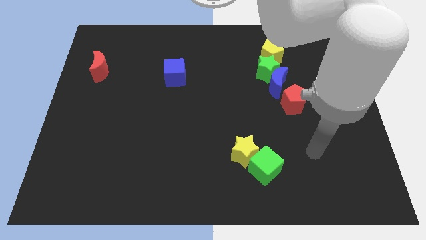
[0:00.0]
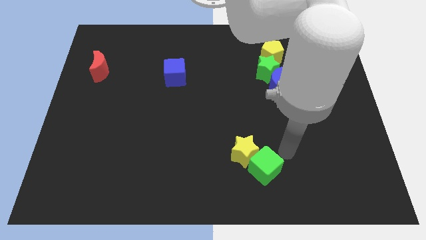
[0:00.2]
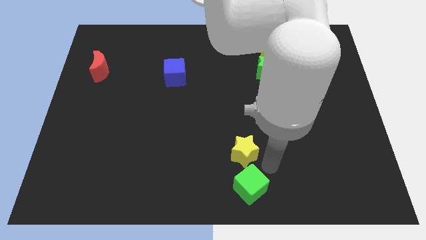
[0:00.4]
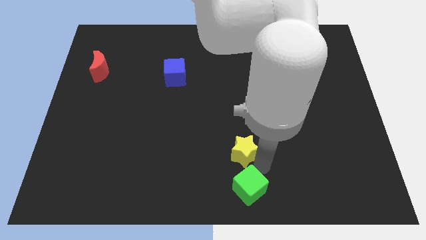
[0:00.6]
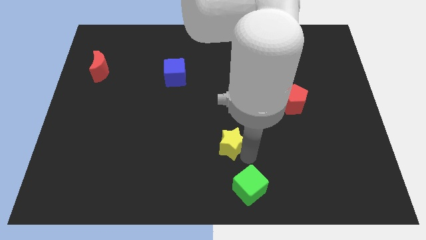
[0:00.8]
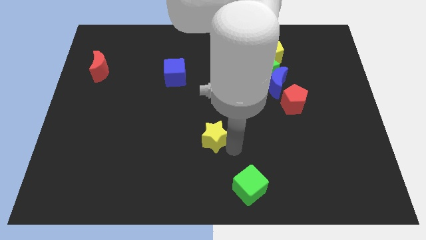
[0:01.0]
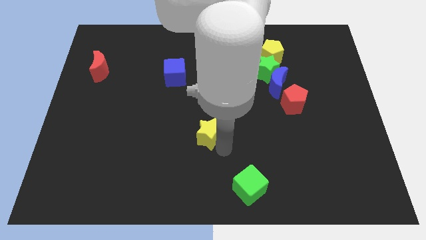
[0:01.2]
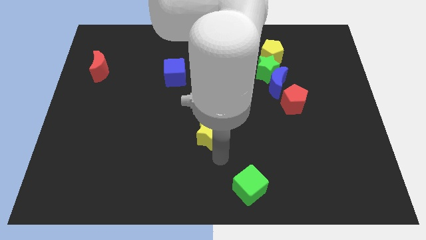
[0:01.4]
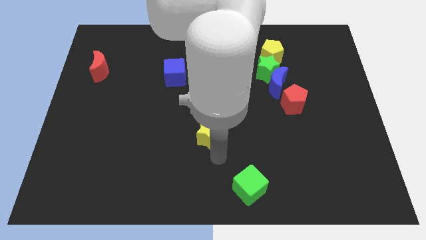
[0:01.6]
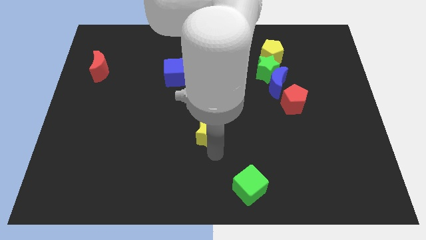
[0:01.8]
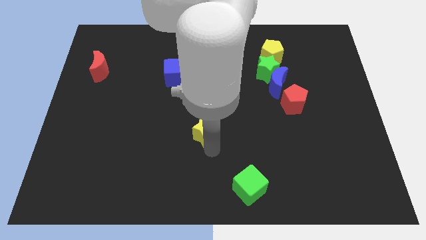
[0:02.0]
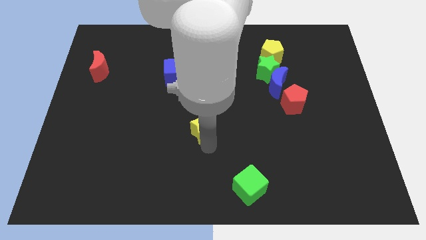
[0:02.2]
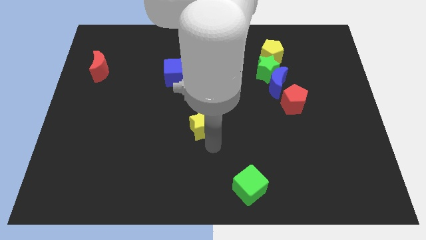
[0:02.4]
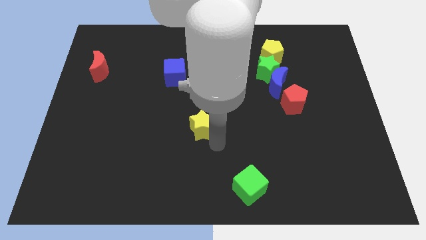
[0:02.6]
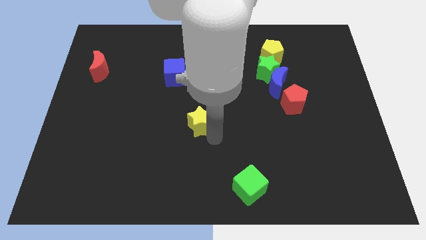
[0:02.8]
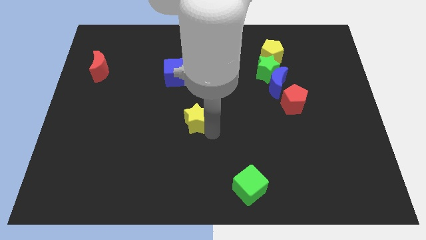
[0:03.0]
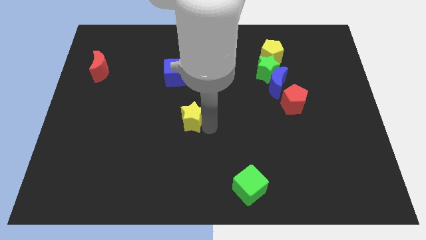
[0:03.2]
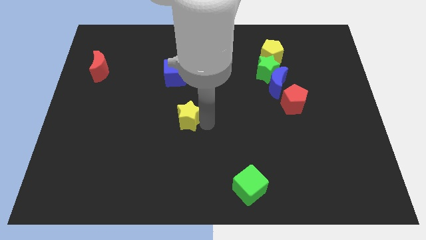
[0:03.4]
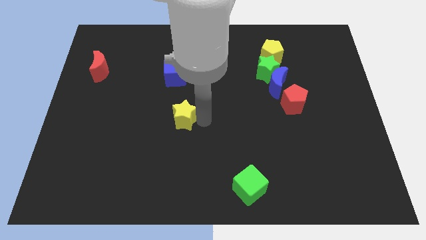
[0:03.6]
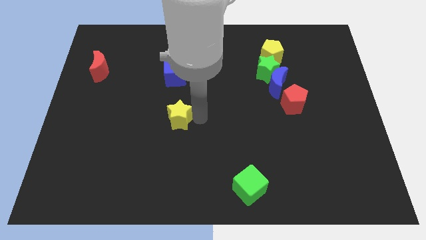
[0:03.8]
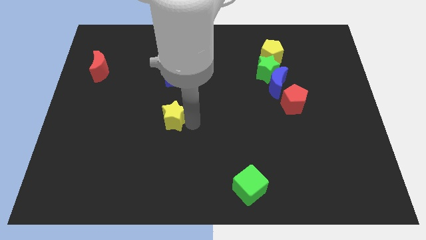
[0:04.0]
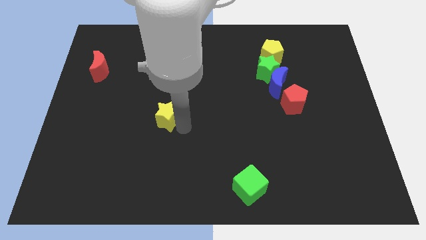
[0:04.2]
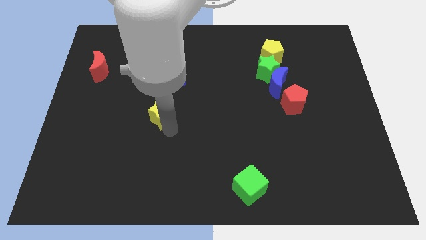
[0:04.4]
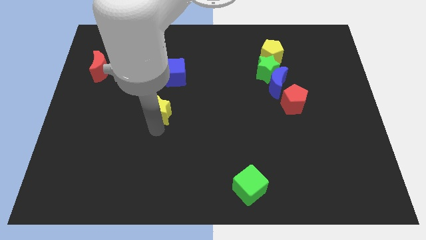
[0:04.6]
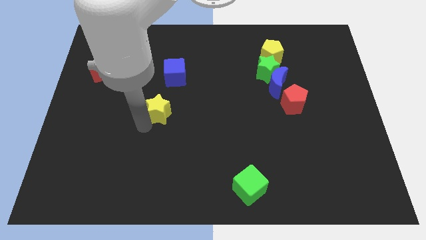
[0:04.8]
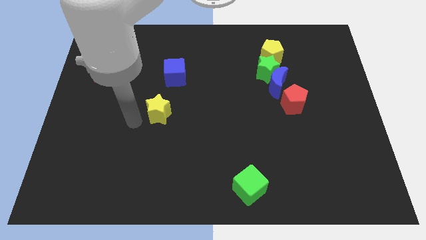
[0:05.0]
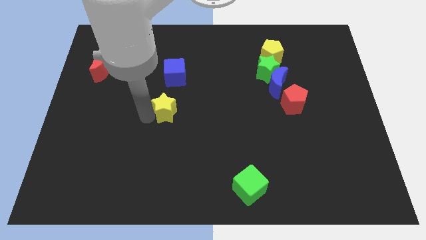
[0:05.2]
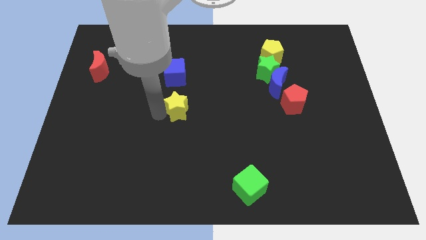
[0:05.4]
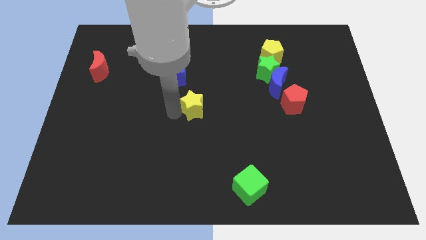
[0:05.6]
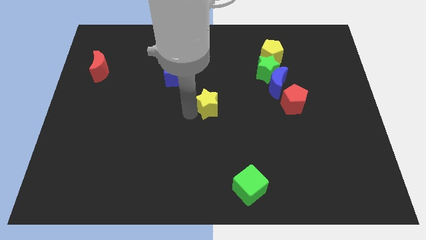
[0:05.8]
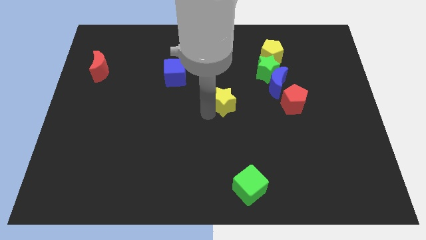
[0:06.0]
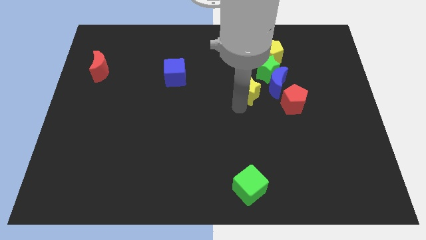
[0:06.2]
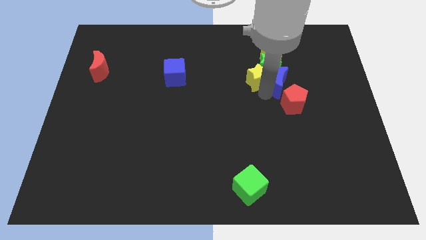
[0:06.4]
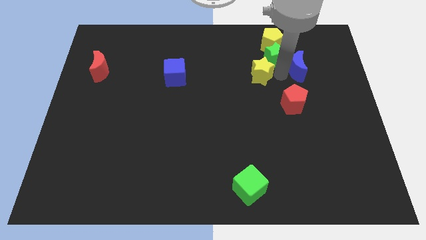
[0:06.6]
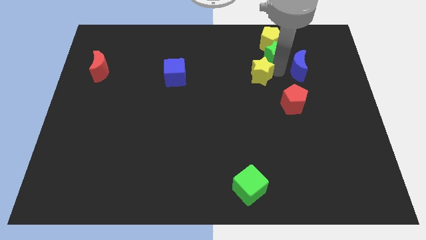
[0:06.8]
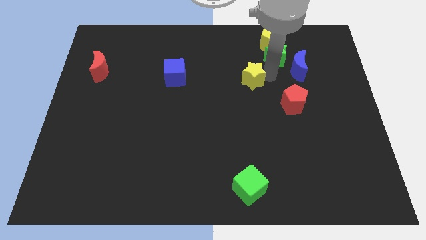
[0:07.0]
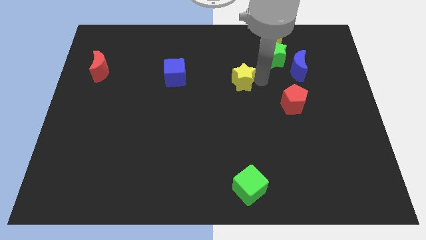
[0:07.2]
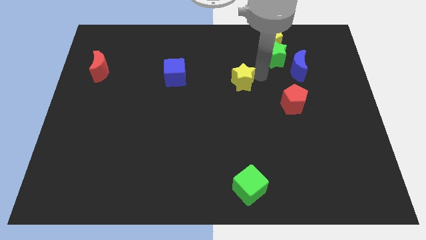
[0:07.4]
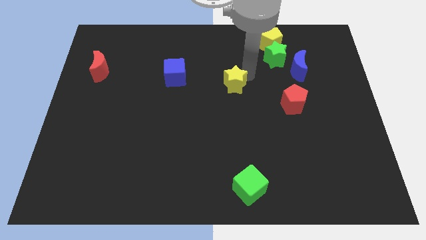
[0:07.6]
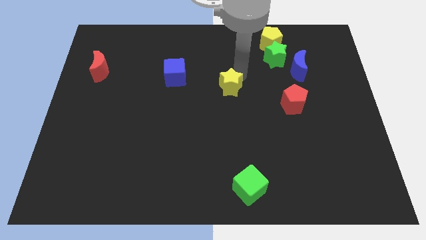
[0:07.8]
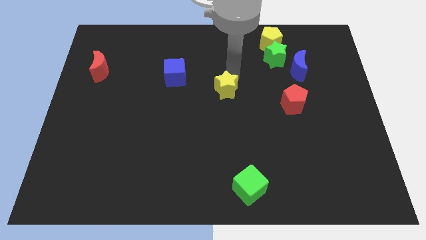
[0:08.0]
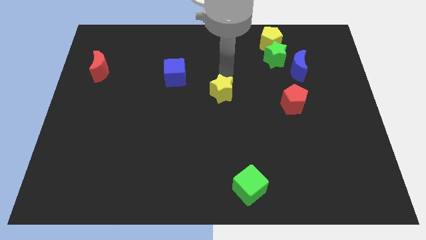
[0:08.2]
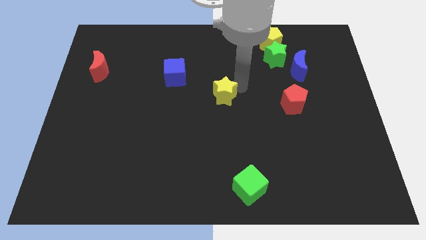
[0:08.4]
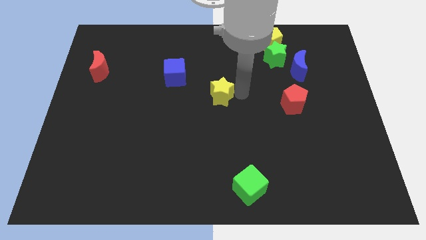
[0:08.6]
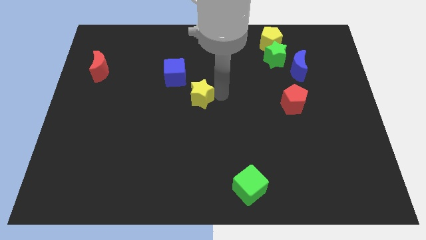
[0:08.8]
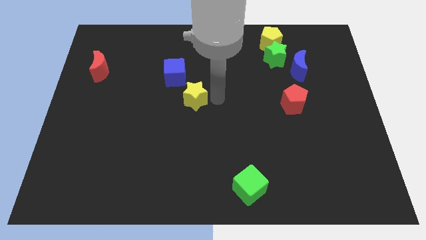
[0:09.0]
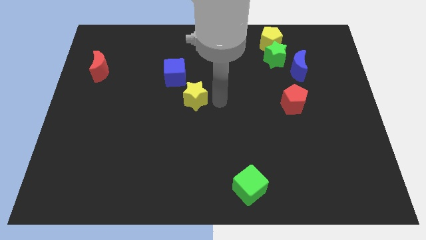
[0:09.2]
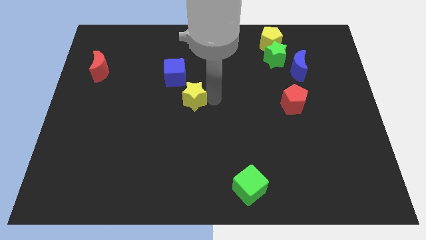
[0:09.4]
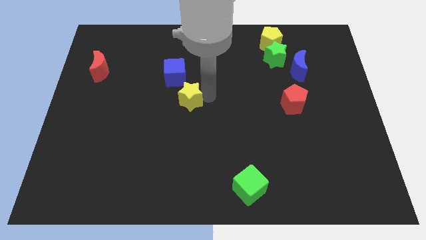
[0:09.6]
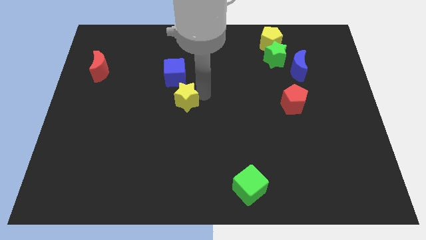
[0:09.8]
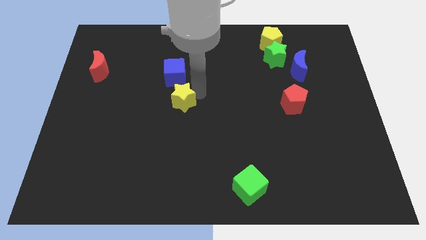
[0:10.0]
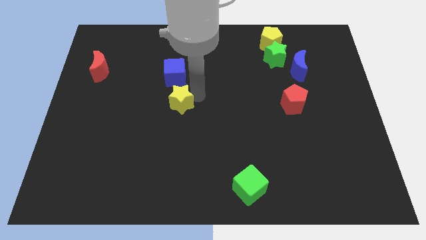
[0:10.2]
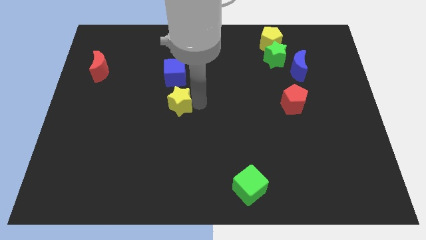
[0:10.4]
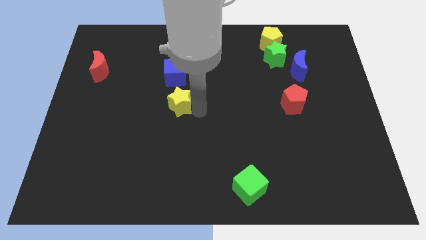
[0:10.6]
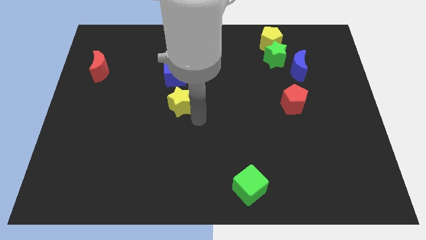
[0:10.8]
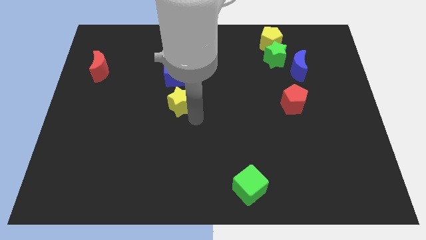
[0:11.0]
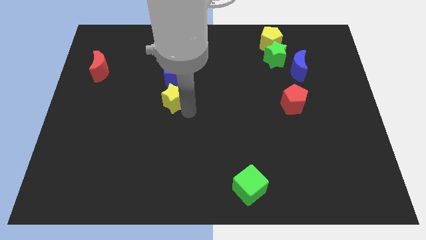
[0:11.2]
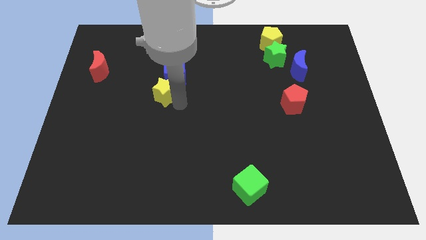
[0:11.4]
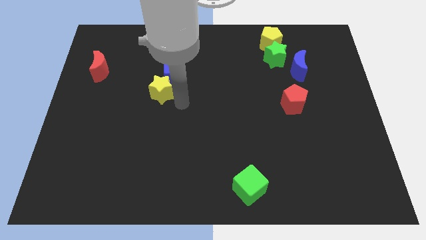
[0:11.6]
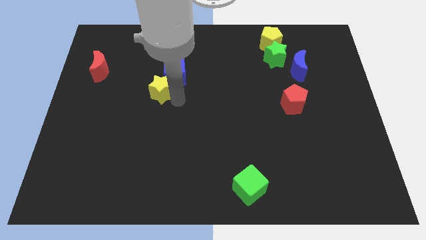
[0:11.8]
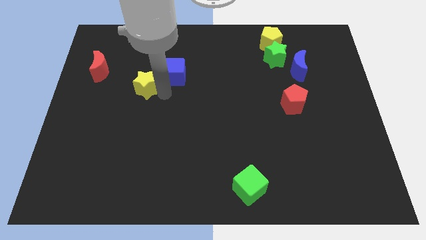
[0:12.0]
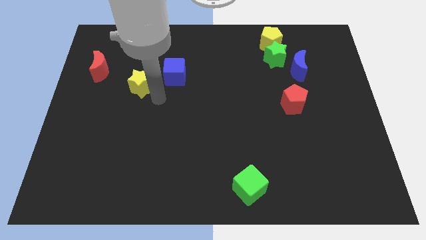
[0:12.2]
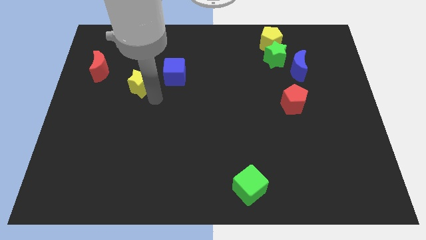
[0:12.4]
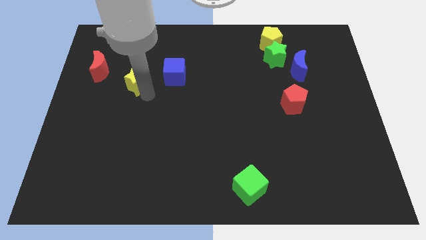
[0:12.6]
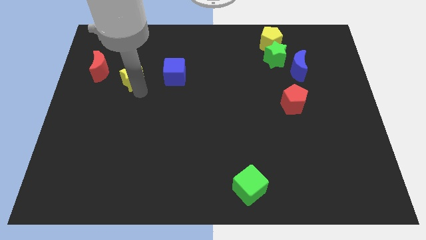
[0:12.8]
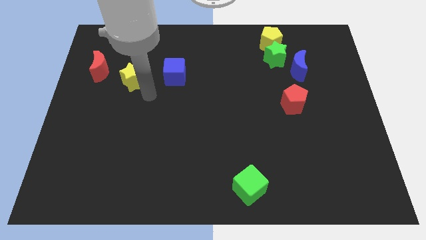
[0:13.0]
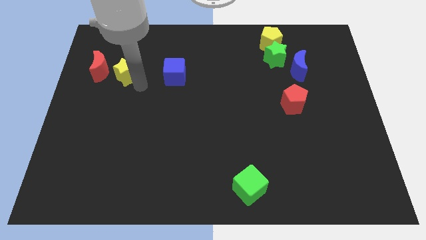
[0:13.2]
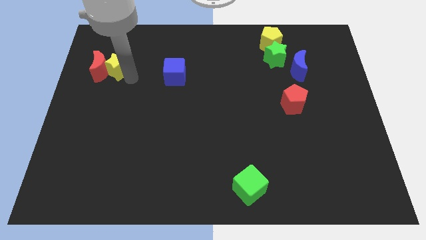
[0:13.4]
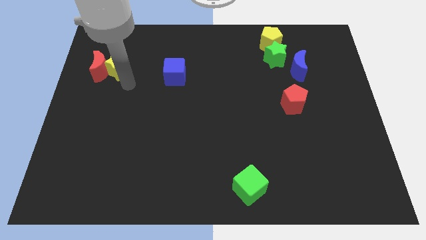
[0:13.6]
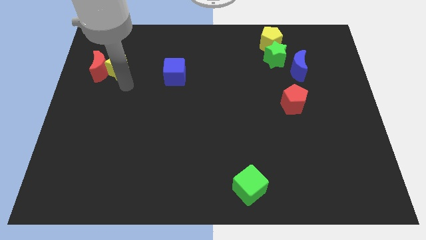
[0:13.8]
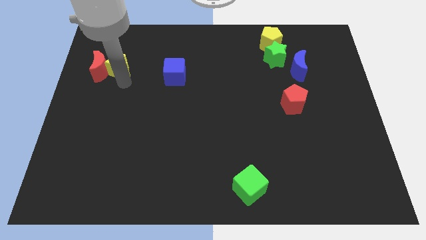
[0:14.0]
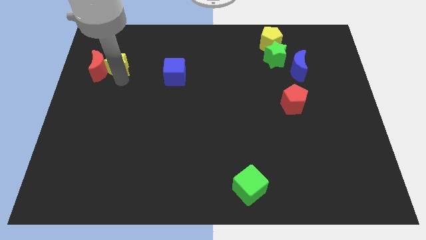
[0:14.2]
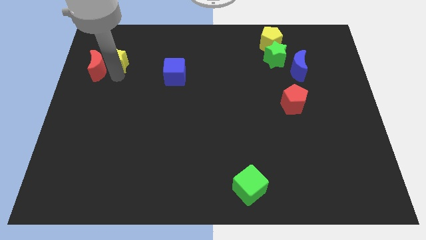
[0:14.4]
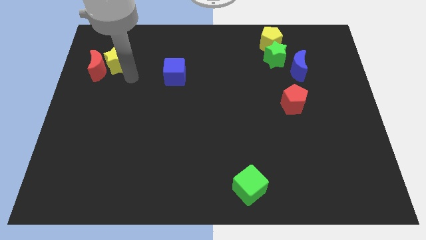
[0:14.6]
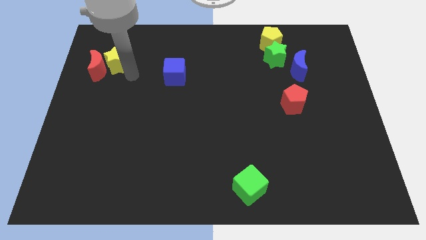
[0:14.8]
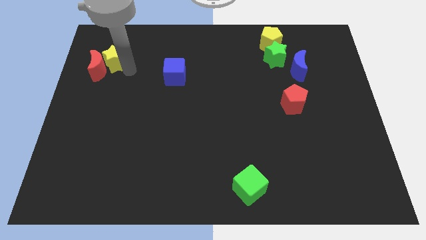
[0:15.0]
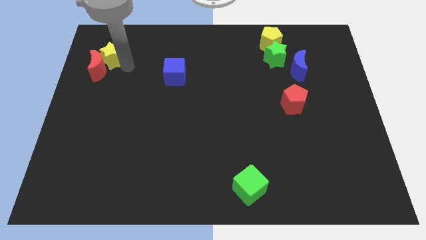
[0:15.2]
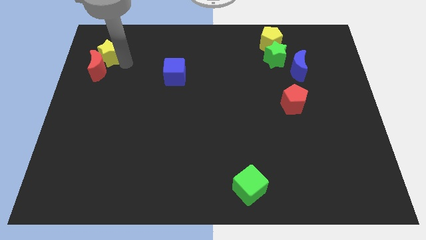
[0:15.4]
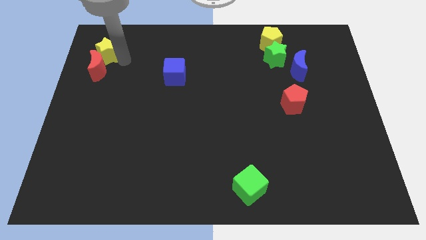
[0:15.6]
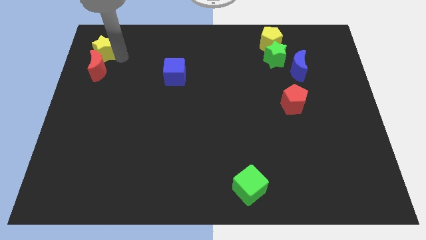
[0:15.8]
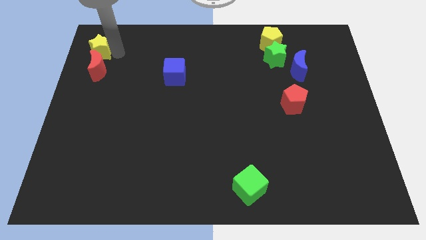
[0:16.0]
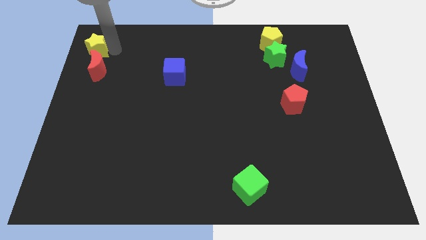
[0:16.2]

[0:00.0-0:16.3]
slide the yellow star to the top left corner
